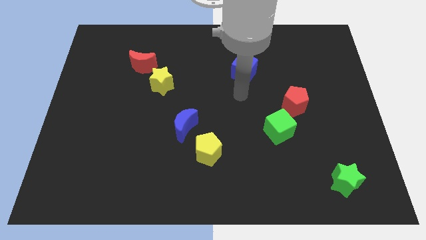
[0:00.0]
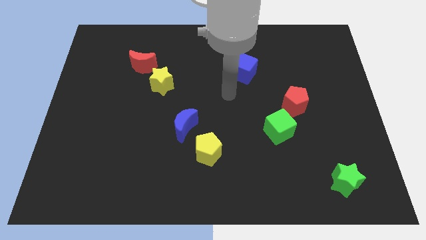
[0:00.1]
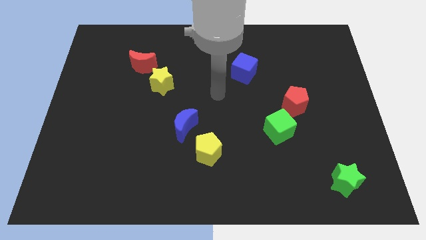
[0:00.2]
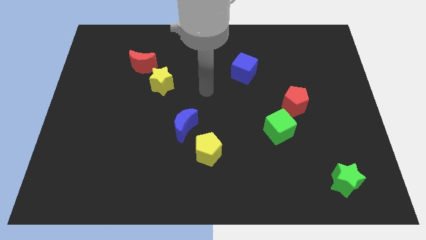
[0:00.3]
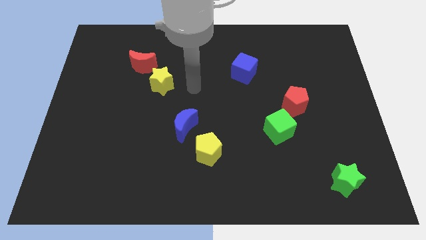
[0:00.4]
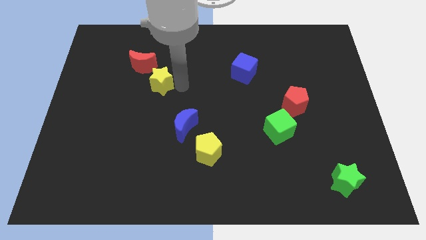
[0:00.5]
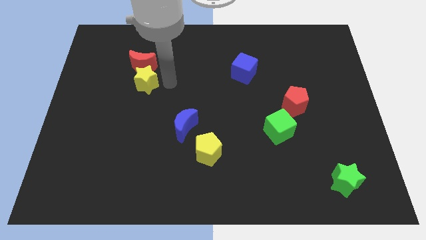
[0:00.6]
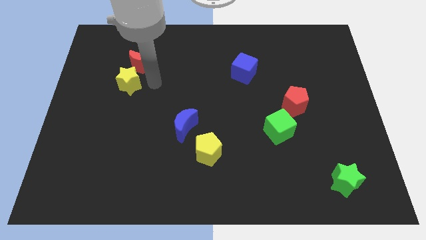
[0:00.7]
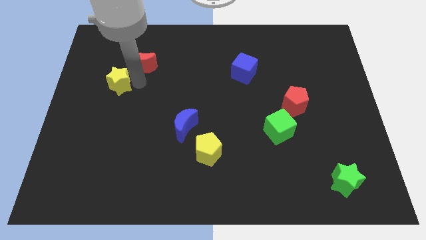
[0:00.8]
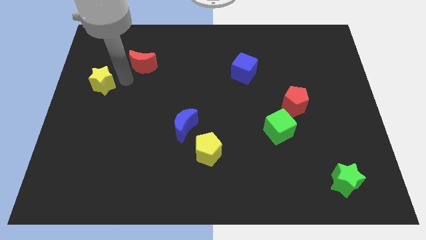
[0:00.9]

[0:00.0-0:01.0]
move the red moon away from the yellow star

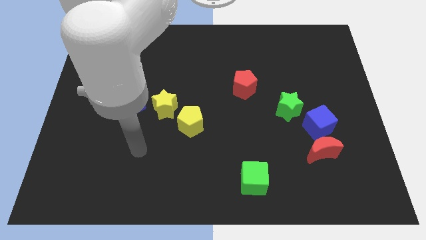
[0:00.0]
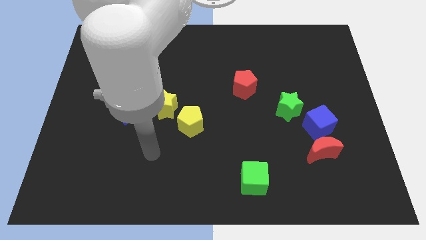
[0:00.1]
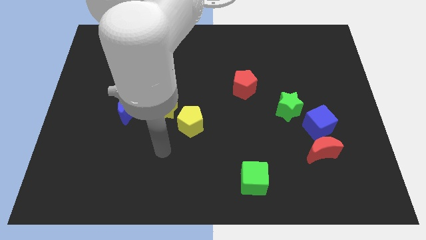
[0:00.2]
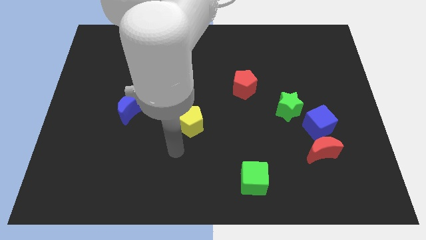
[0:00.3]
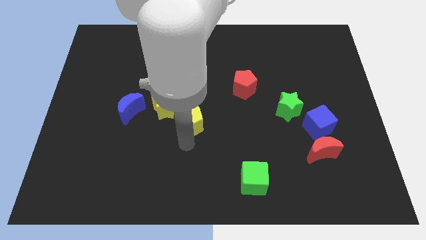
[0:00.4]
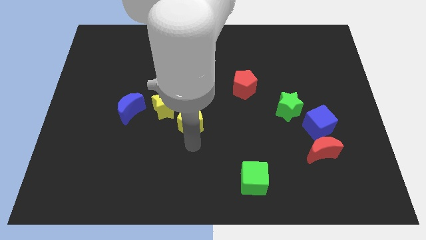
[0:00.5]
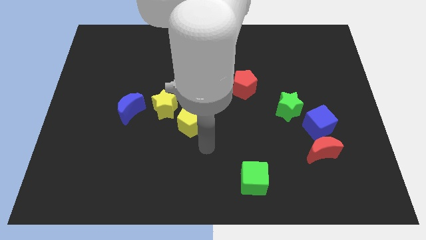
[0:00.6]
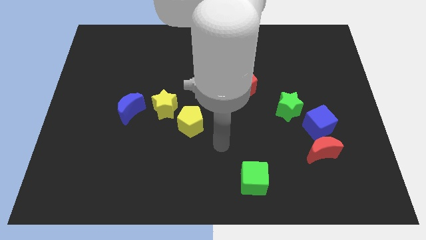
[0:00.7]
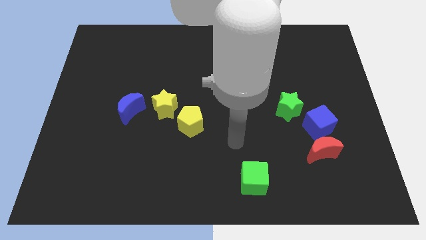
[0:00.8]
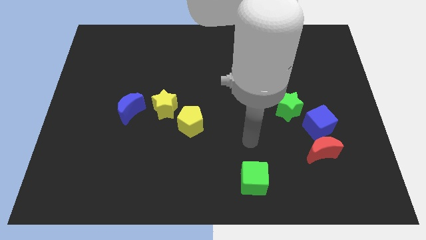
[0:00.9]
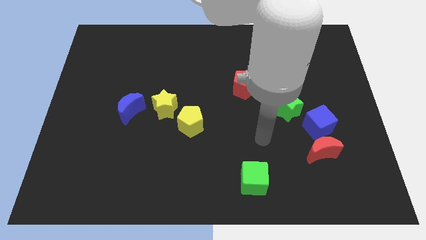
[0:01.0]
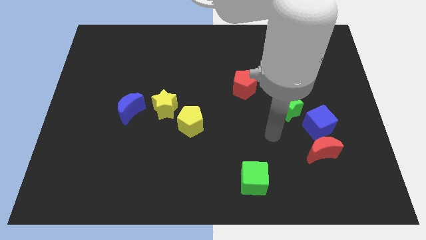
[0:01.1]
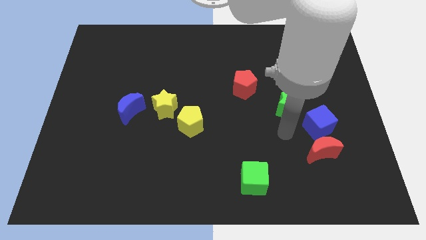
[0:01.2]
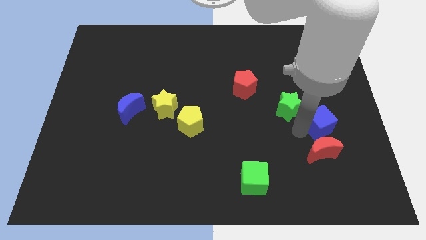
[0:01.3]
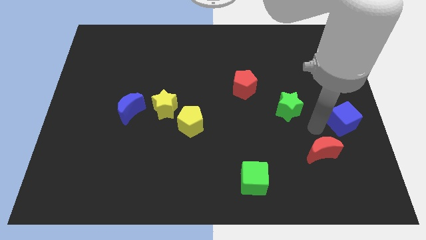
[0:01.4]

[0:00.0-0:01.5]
pull the red moon apart from the blue cube

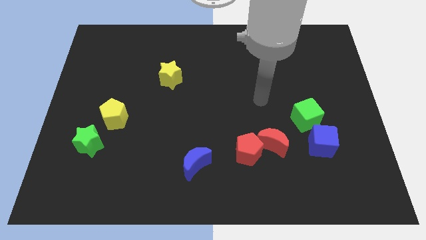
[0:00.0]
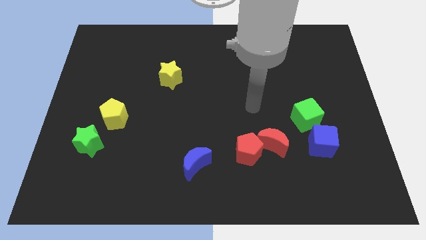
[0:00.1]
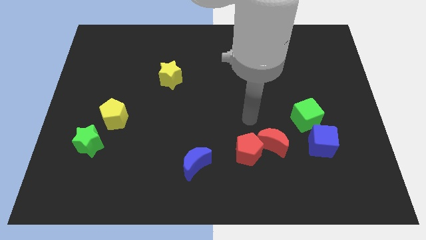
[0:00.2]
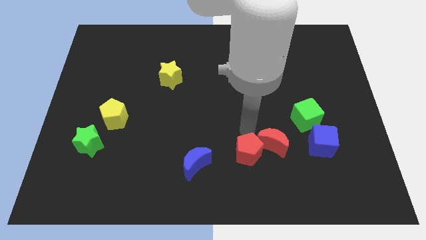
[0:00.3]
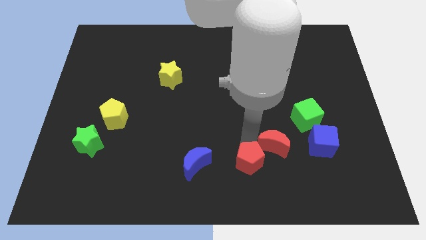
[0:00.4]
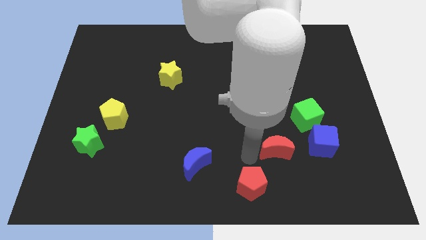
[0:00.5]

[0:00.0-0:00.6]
pull the red moon apart from the red pentagon

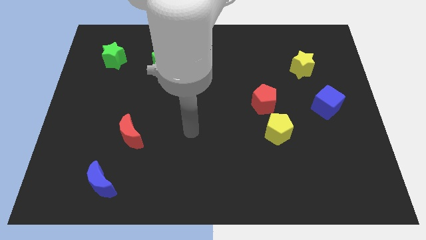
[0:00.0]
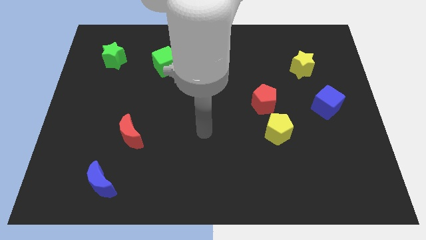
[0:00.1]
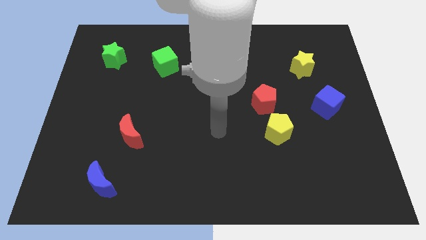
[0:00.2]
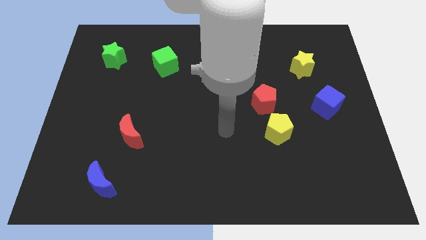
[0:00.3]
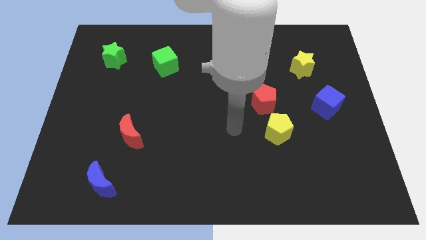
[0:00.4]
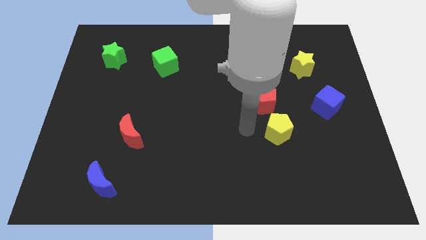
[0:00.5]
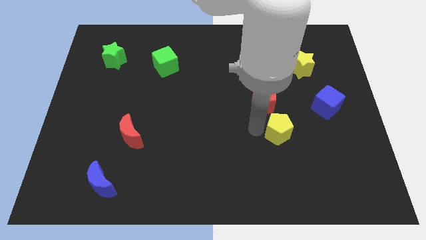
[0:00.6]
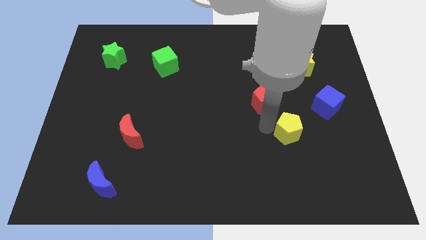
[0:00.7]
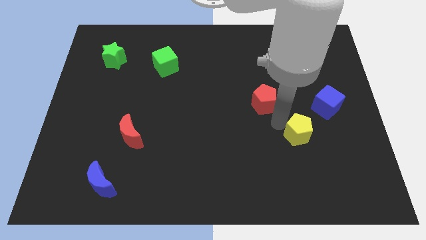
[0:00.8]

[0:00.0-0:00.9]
pull the red pentagon apart from the yellow pentagon

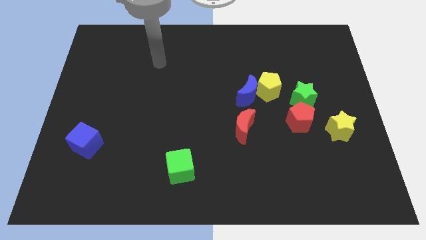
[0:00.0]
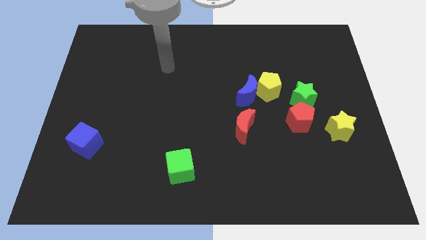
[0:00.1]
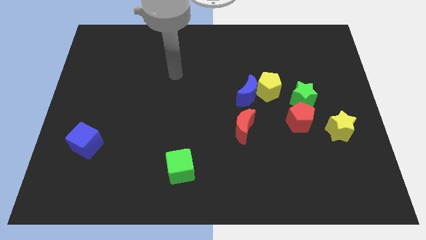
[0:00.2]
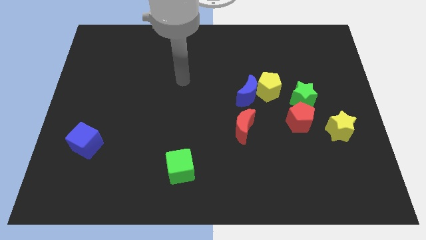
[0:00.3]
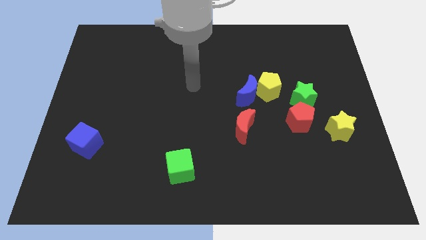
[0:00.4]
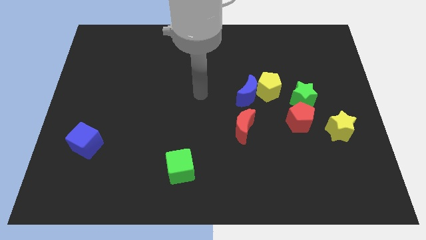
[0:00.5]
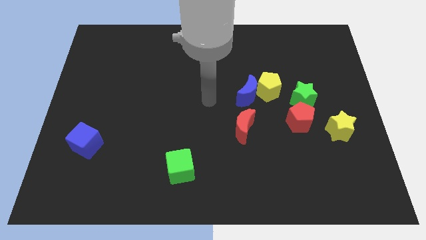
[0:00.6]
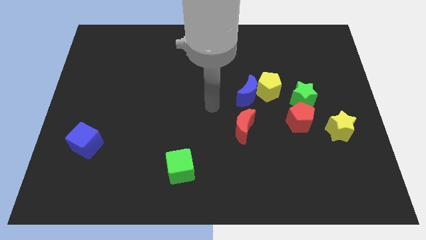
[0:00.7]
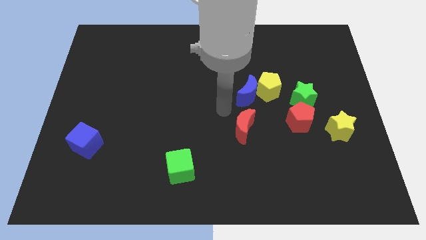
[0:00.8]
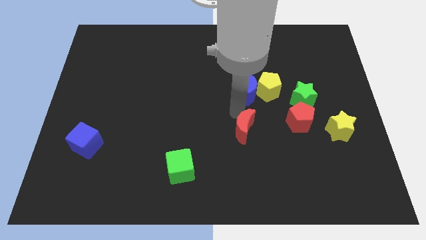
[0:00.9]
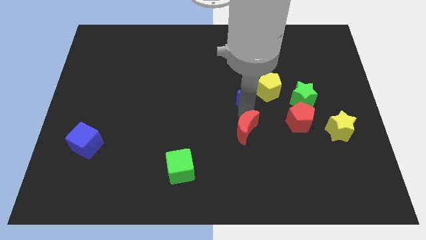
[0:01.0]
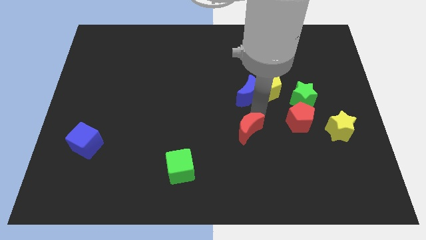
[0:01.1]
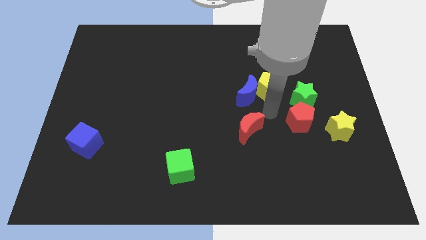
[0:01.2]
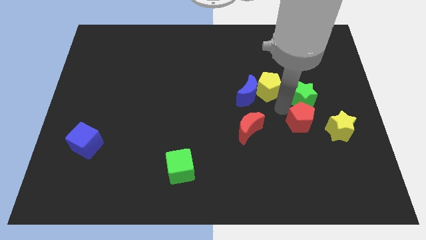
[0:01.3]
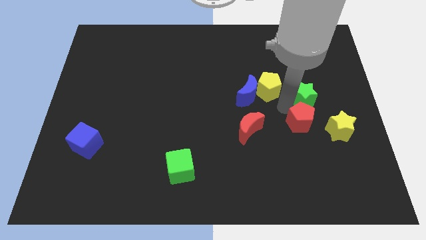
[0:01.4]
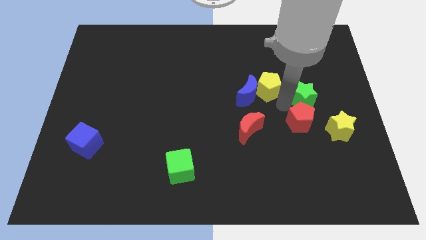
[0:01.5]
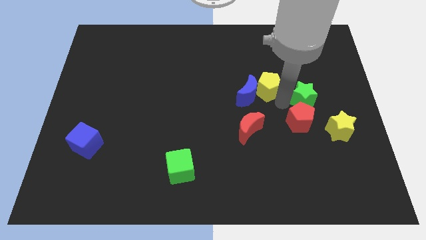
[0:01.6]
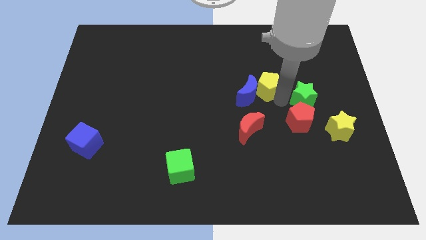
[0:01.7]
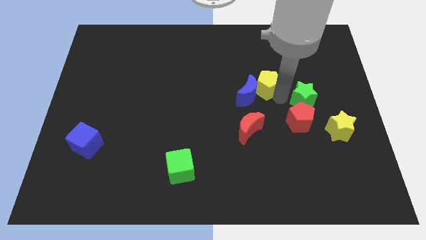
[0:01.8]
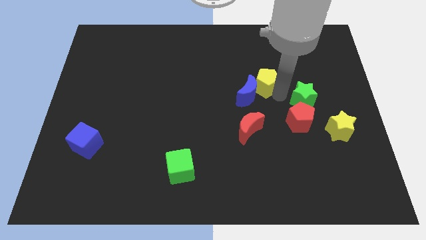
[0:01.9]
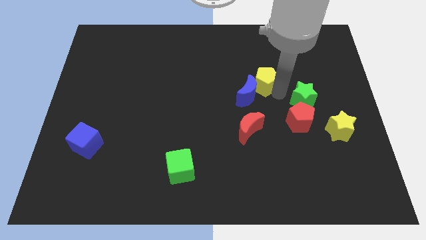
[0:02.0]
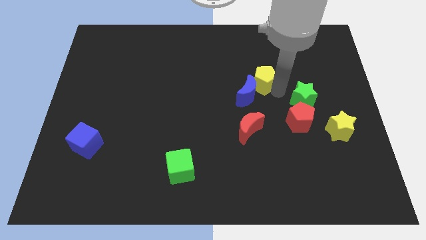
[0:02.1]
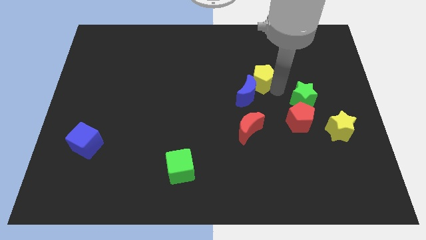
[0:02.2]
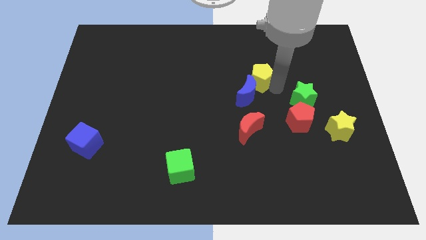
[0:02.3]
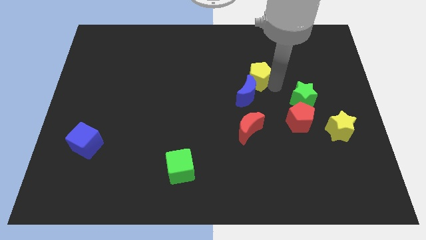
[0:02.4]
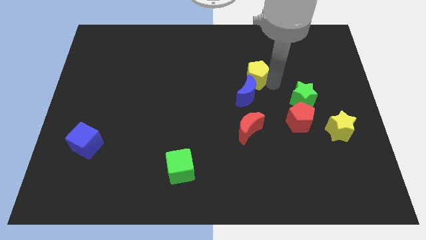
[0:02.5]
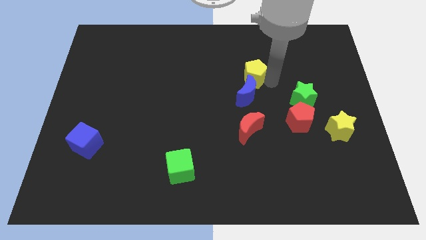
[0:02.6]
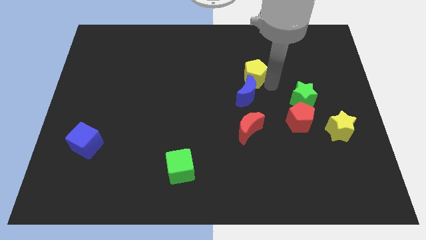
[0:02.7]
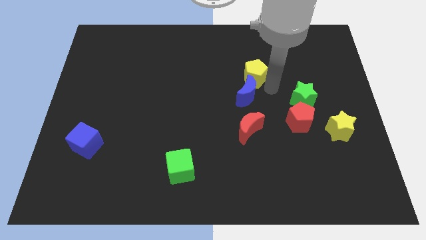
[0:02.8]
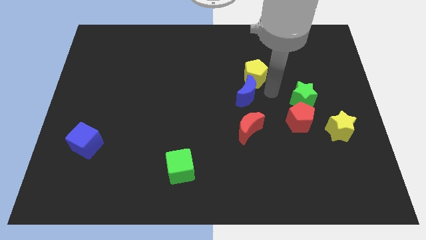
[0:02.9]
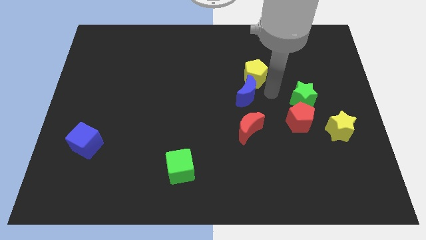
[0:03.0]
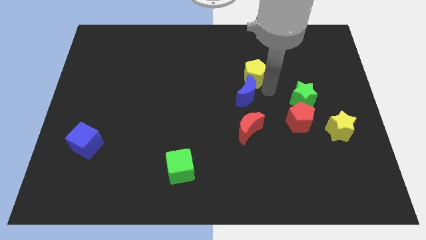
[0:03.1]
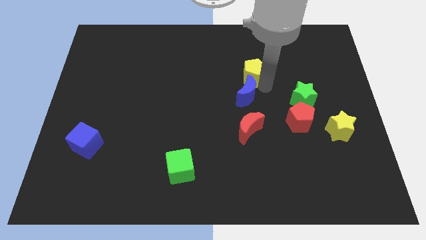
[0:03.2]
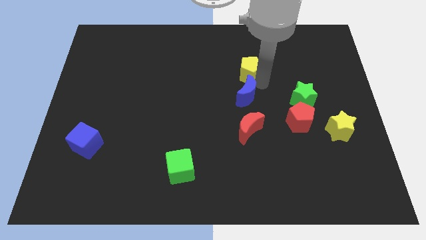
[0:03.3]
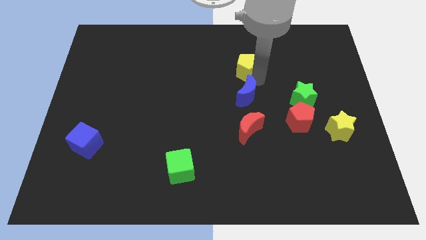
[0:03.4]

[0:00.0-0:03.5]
separate the yellow pentagon from the blue moon and green star

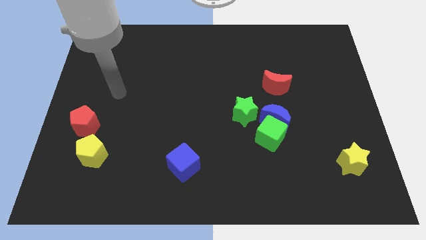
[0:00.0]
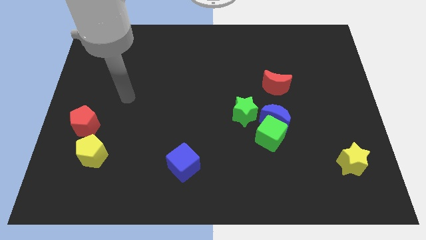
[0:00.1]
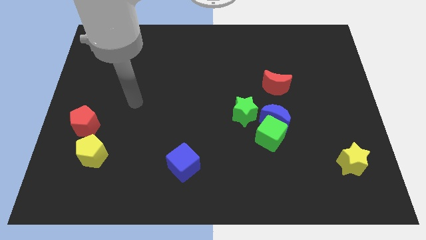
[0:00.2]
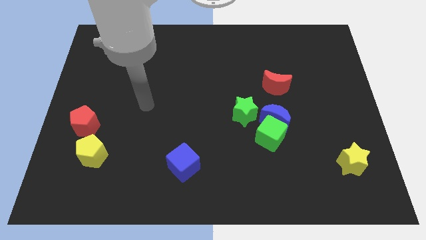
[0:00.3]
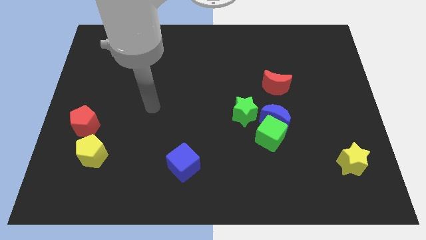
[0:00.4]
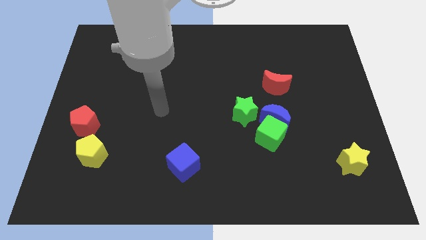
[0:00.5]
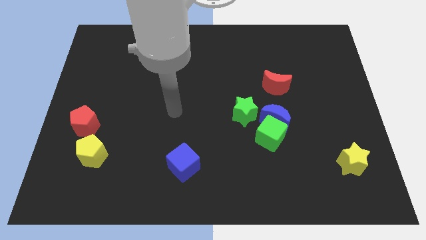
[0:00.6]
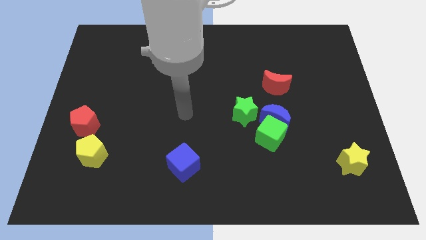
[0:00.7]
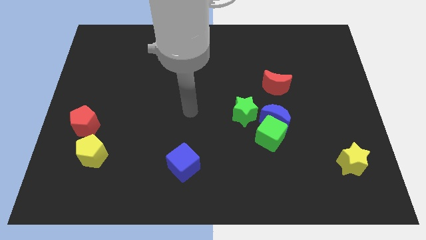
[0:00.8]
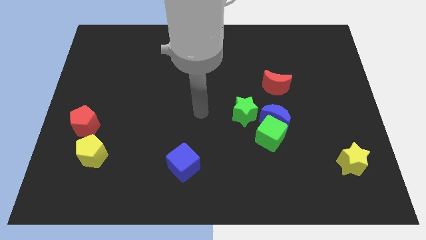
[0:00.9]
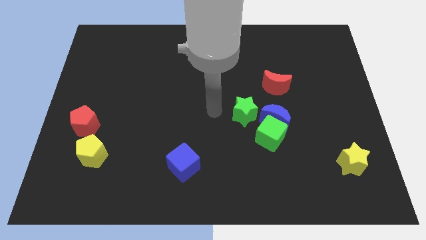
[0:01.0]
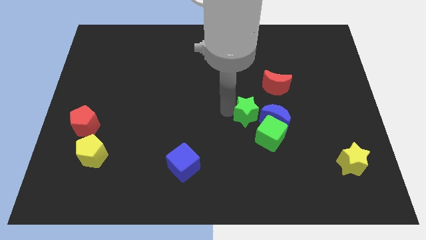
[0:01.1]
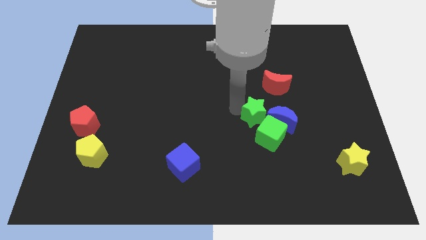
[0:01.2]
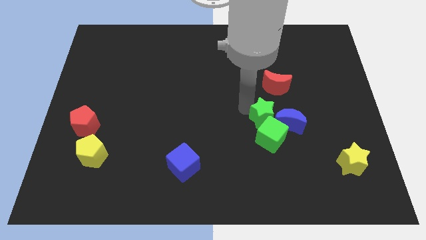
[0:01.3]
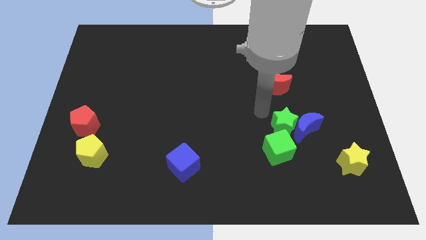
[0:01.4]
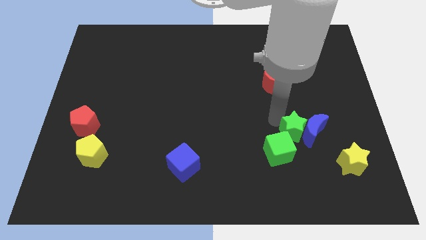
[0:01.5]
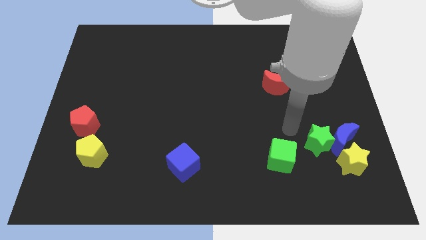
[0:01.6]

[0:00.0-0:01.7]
move the green cube away from the blue moon and green star

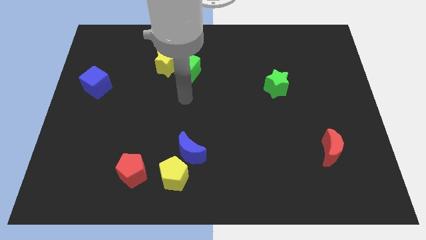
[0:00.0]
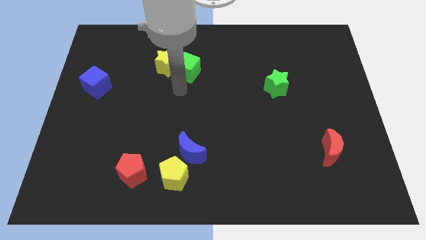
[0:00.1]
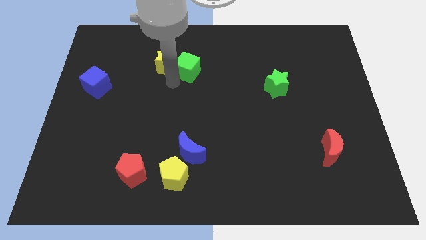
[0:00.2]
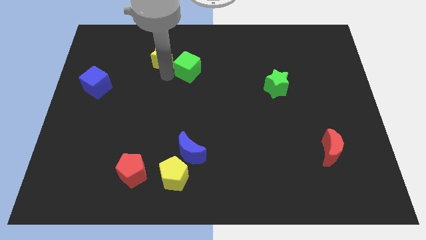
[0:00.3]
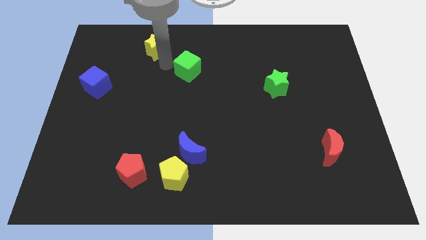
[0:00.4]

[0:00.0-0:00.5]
move the green cube away from the yellow star
